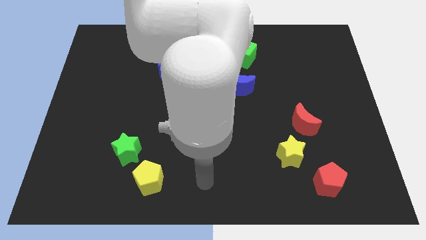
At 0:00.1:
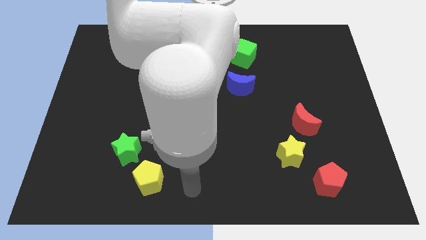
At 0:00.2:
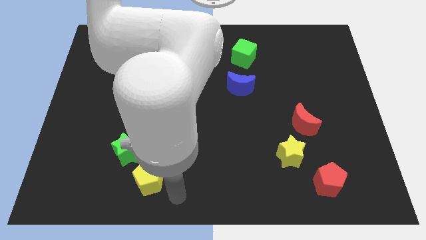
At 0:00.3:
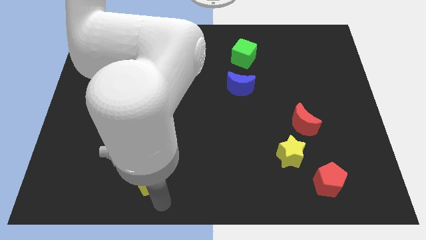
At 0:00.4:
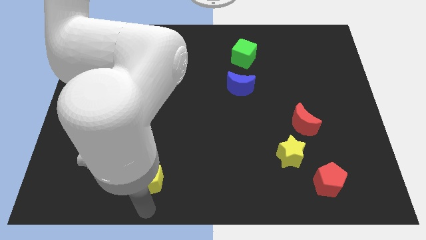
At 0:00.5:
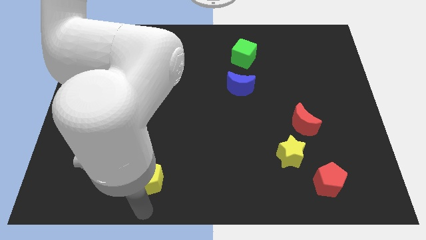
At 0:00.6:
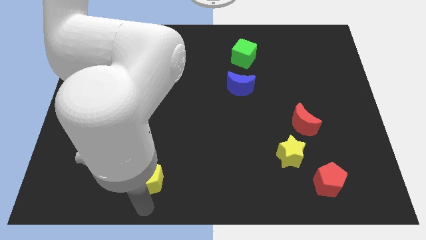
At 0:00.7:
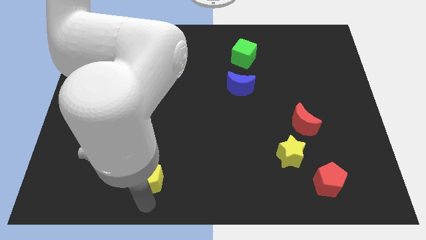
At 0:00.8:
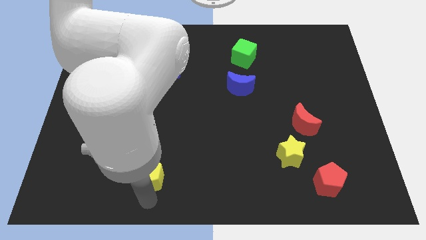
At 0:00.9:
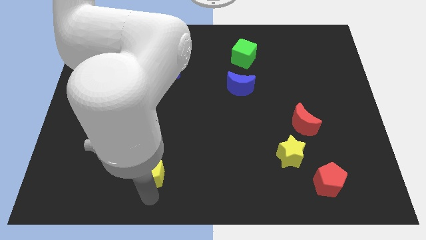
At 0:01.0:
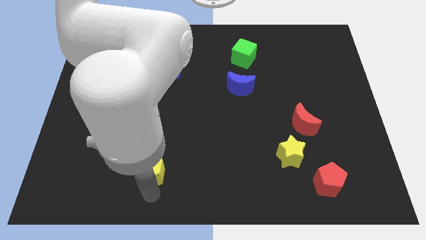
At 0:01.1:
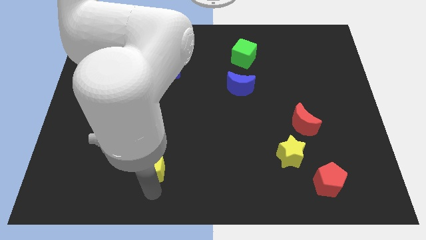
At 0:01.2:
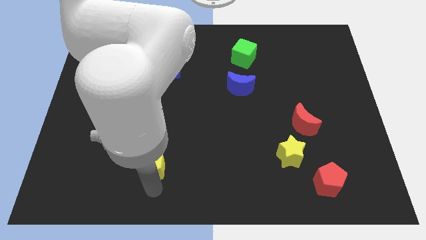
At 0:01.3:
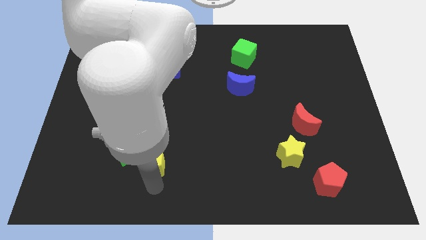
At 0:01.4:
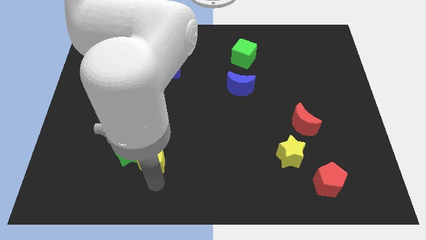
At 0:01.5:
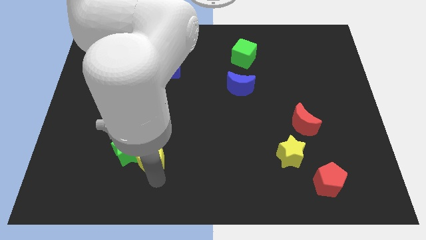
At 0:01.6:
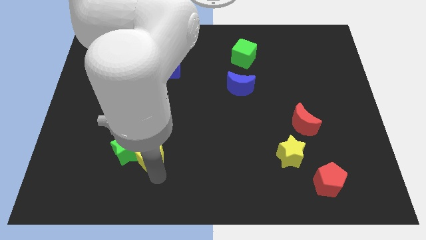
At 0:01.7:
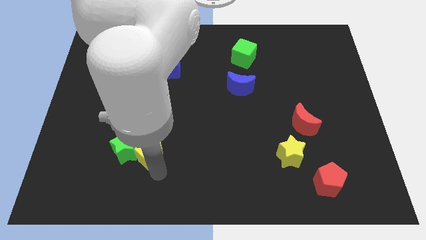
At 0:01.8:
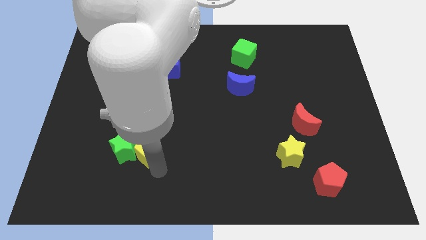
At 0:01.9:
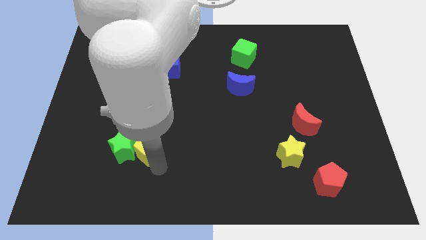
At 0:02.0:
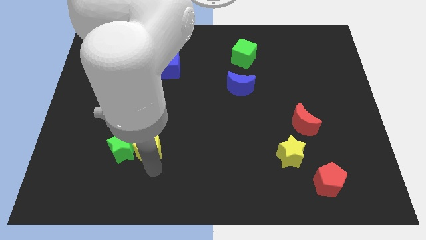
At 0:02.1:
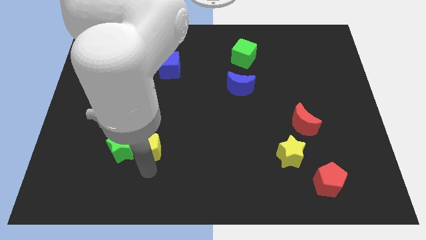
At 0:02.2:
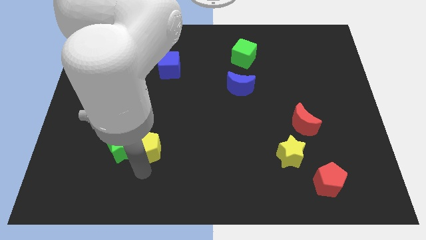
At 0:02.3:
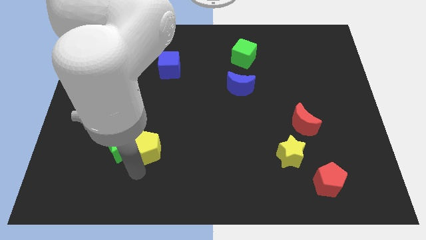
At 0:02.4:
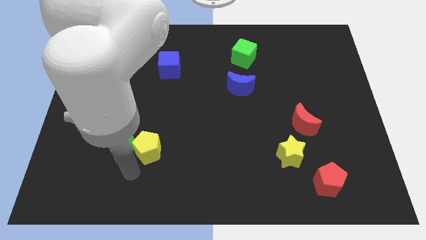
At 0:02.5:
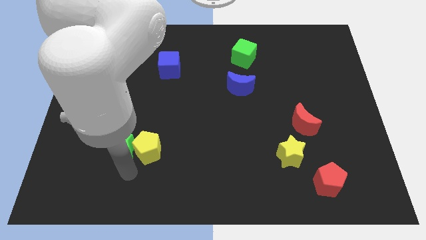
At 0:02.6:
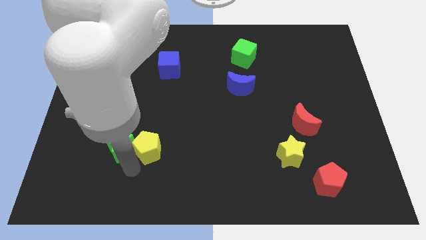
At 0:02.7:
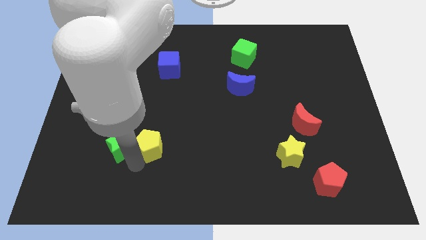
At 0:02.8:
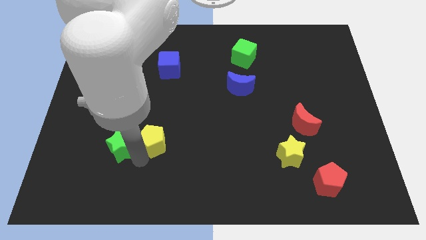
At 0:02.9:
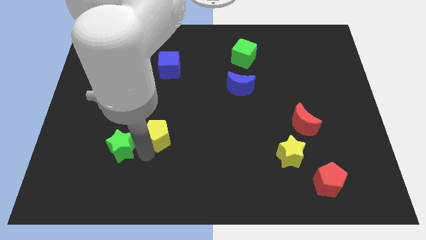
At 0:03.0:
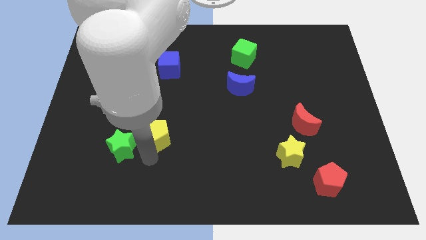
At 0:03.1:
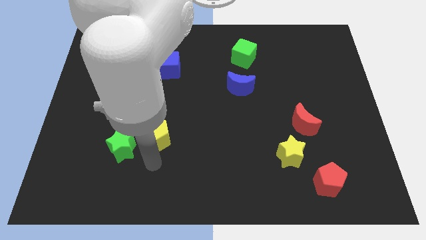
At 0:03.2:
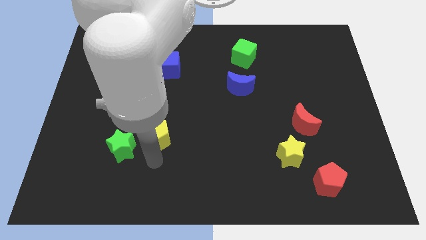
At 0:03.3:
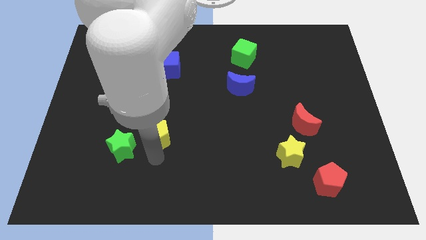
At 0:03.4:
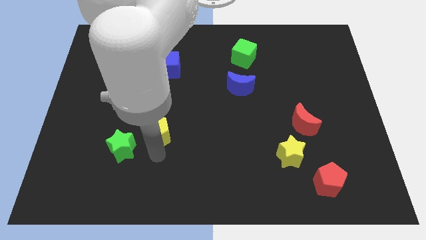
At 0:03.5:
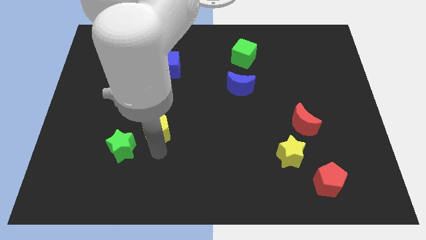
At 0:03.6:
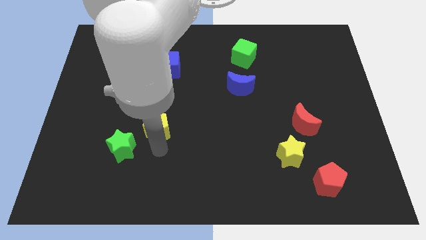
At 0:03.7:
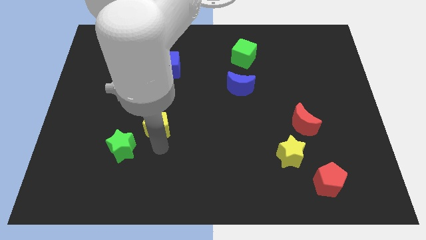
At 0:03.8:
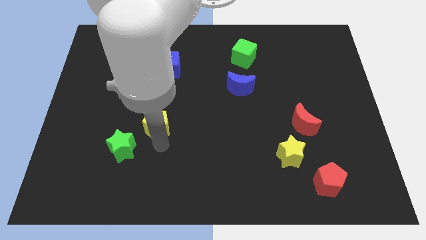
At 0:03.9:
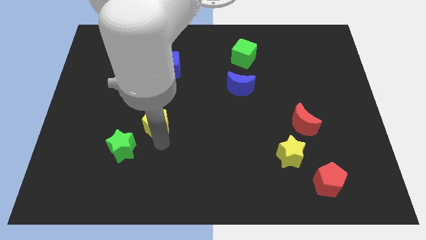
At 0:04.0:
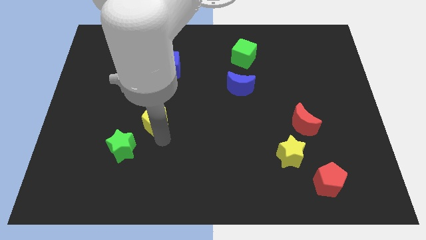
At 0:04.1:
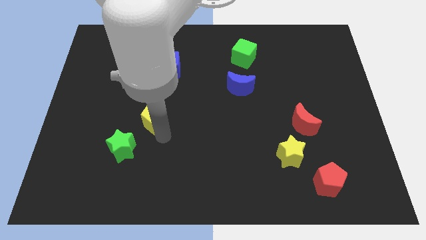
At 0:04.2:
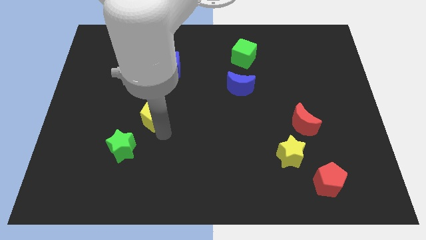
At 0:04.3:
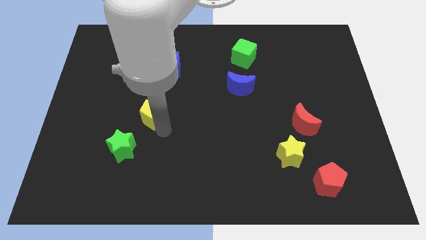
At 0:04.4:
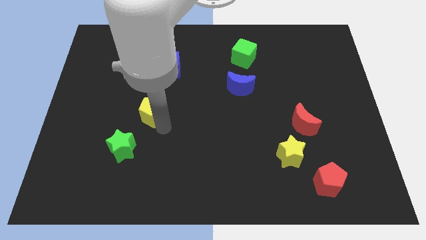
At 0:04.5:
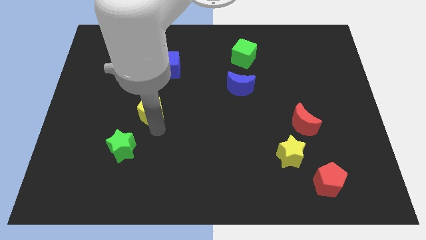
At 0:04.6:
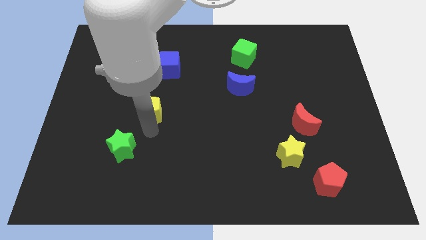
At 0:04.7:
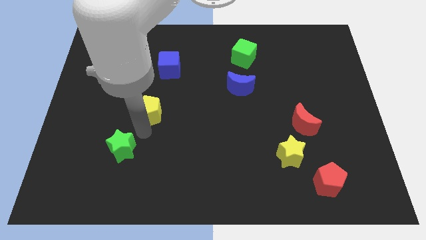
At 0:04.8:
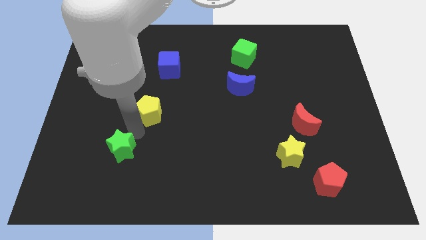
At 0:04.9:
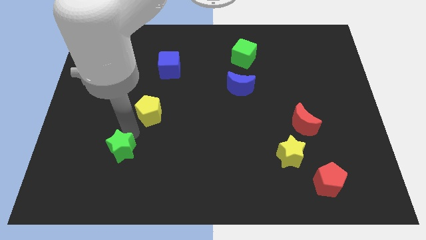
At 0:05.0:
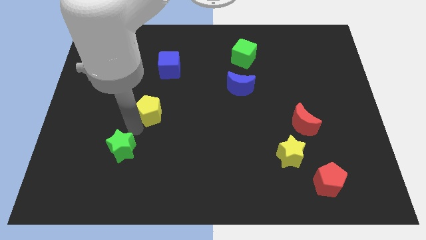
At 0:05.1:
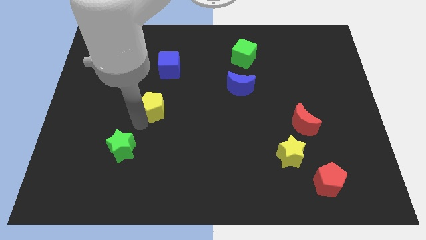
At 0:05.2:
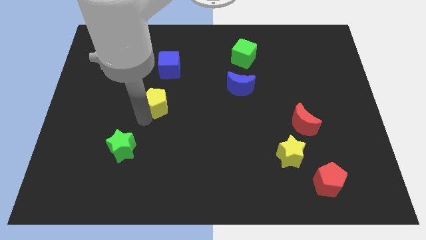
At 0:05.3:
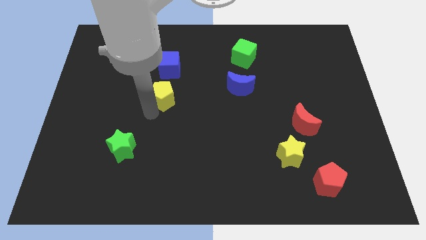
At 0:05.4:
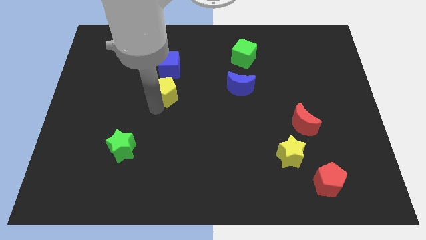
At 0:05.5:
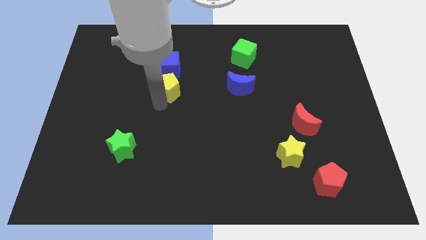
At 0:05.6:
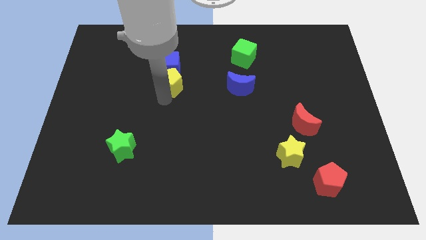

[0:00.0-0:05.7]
move the yellow pentagon close to the blue cube

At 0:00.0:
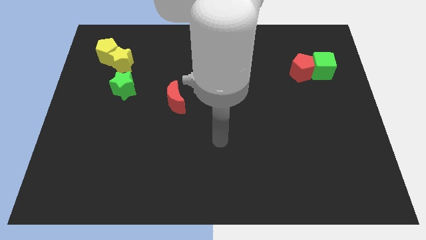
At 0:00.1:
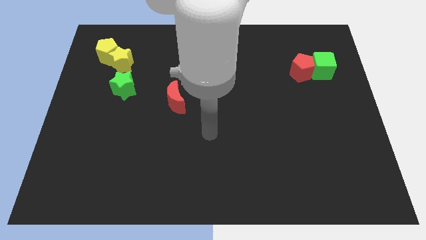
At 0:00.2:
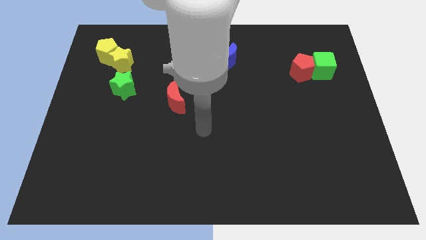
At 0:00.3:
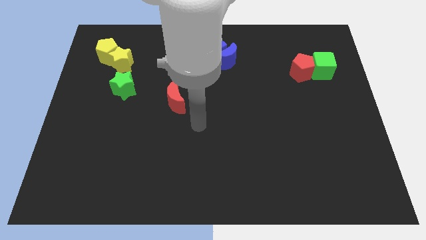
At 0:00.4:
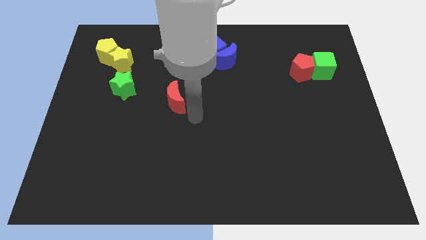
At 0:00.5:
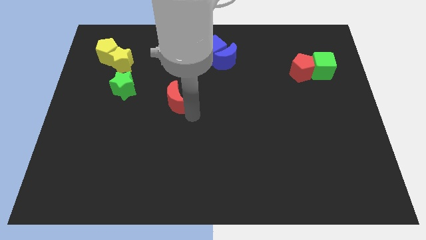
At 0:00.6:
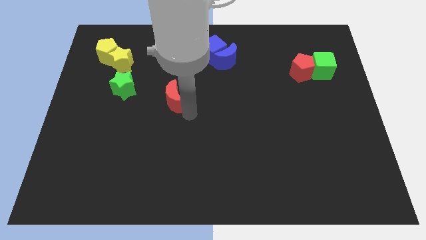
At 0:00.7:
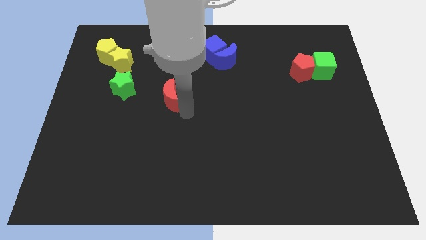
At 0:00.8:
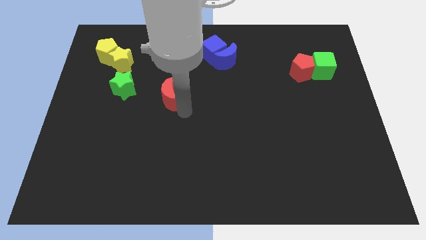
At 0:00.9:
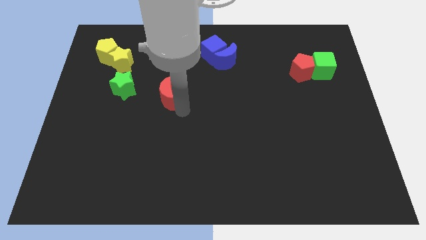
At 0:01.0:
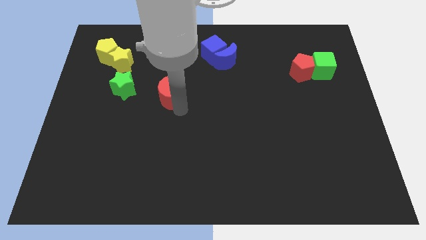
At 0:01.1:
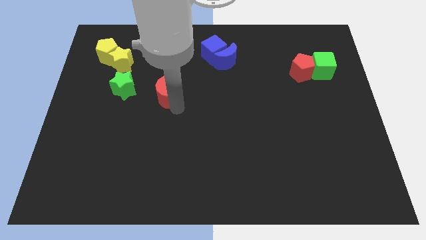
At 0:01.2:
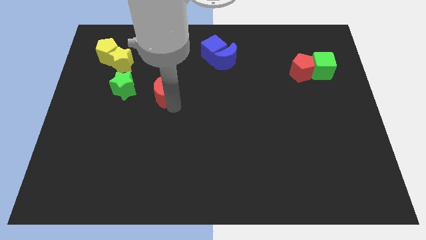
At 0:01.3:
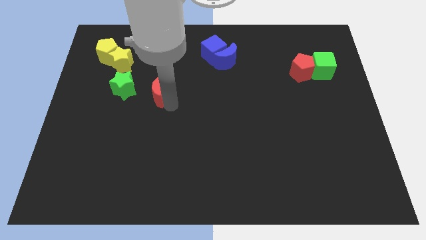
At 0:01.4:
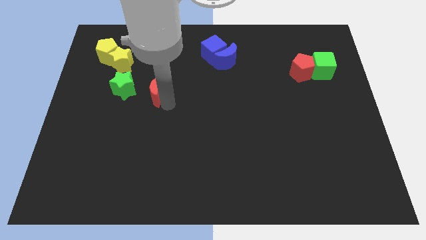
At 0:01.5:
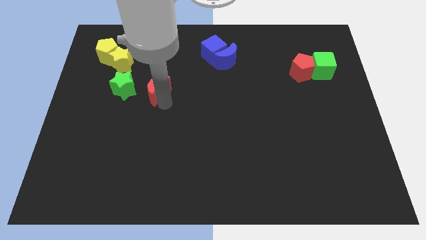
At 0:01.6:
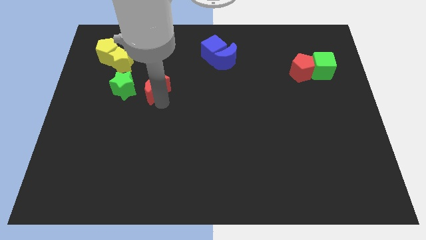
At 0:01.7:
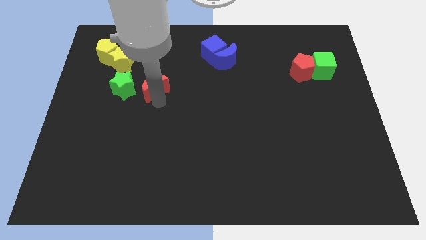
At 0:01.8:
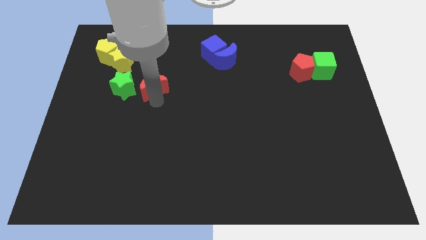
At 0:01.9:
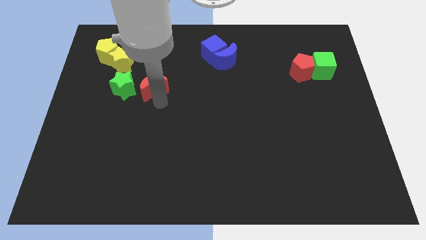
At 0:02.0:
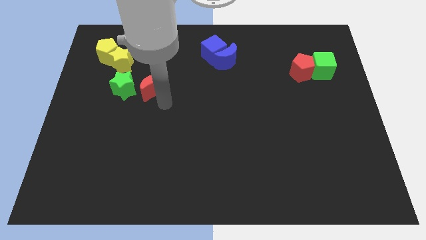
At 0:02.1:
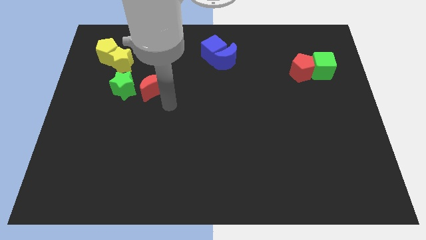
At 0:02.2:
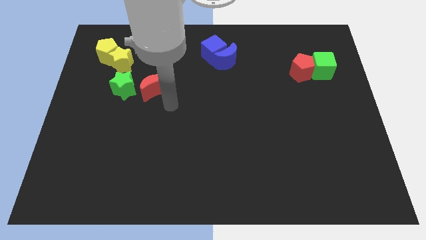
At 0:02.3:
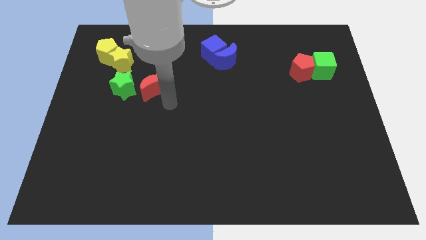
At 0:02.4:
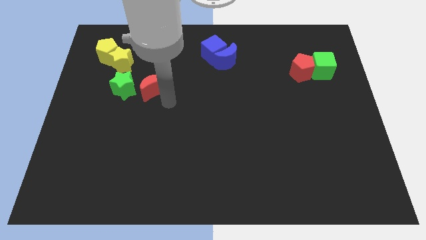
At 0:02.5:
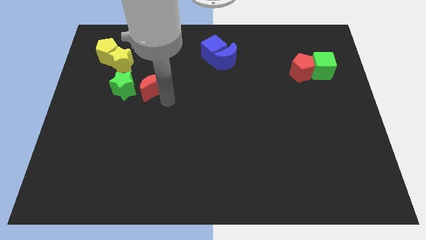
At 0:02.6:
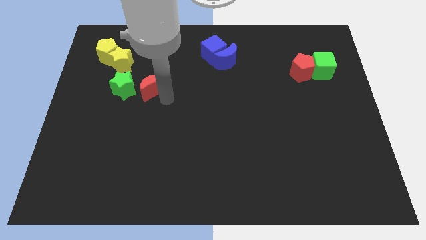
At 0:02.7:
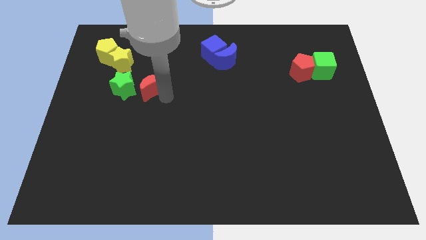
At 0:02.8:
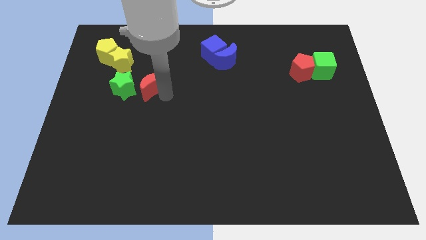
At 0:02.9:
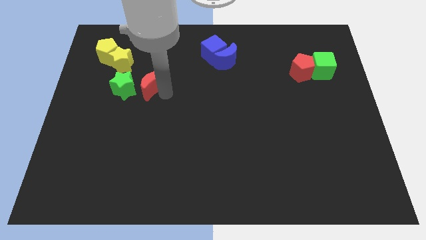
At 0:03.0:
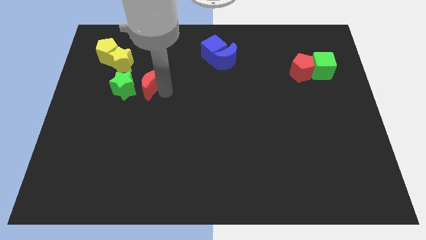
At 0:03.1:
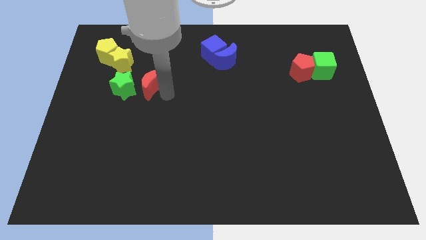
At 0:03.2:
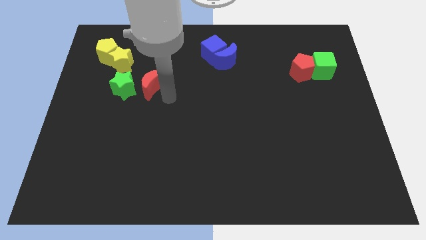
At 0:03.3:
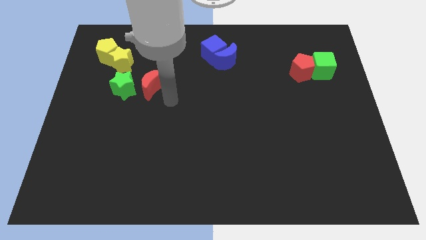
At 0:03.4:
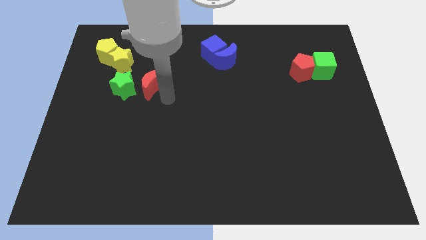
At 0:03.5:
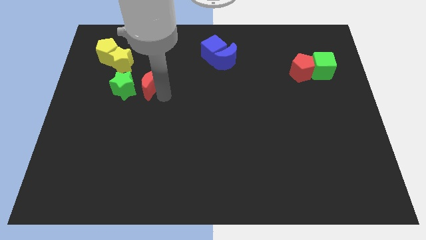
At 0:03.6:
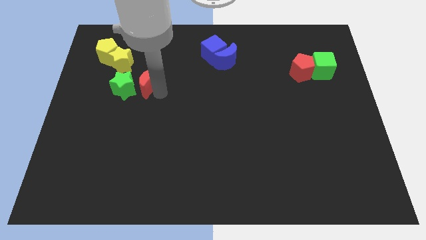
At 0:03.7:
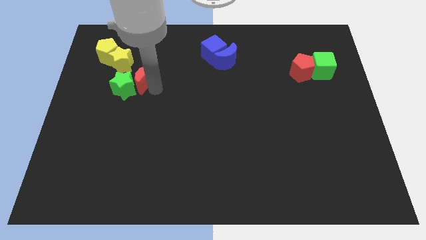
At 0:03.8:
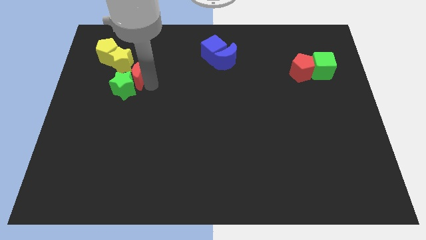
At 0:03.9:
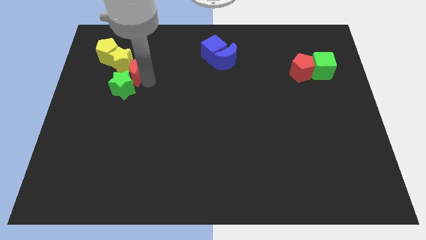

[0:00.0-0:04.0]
push the red moon to the yellow star
